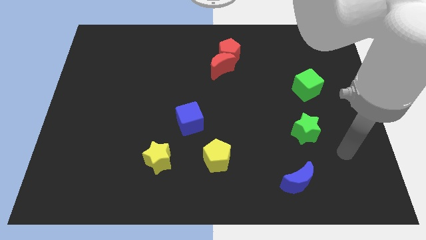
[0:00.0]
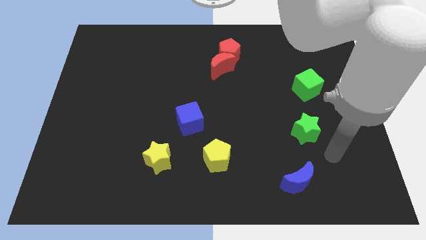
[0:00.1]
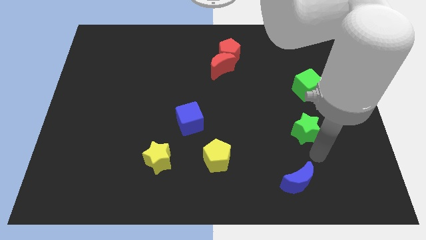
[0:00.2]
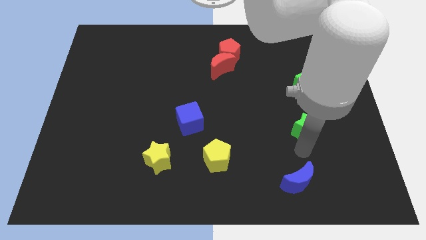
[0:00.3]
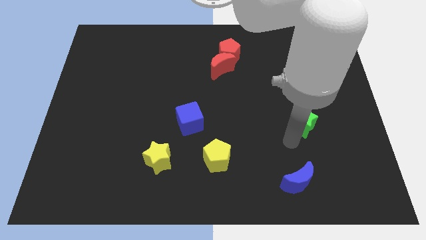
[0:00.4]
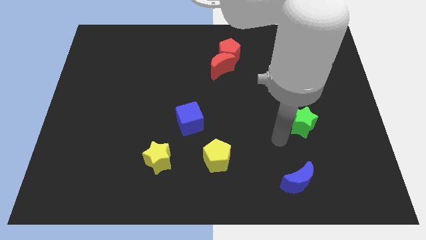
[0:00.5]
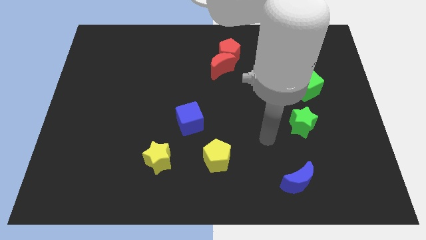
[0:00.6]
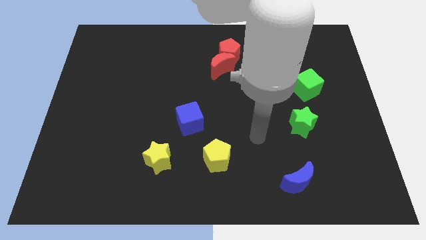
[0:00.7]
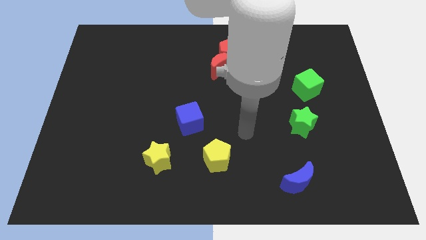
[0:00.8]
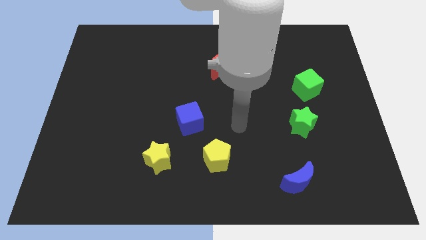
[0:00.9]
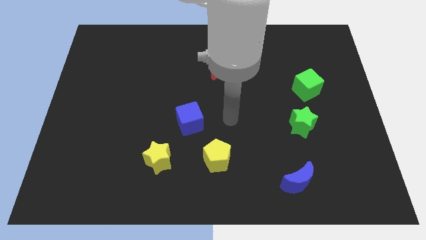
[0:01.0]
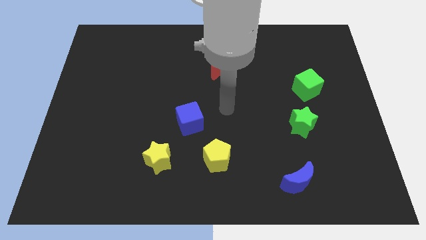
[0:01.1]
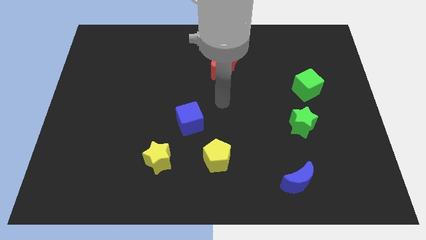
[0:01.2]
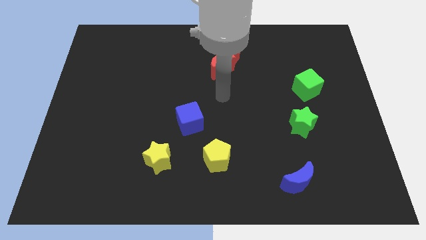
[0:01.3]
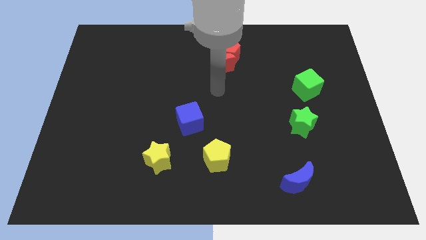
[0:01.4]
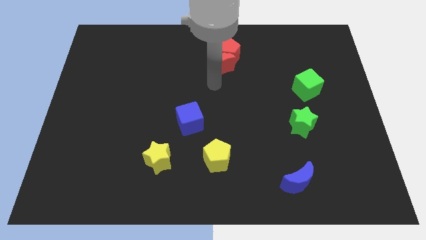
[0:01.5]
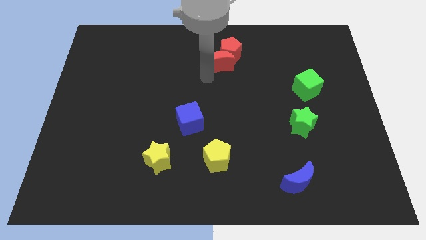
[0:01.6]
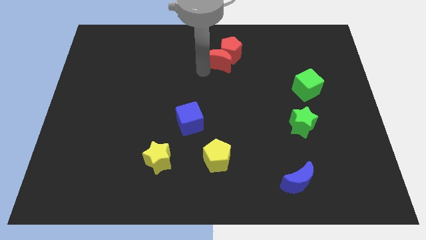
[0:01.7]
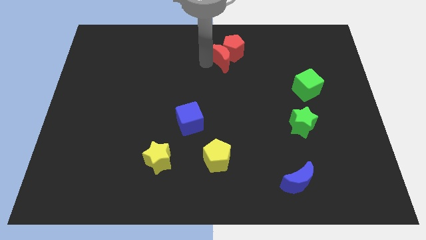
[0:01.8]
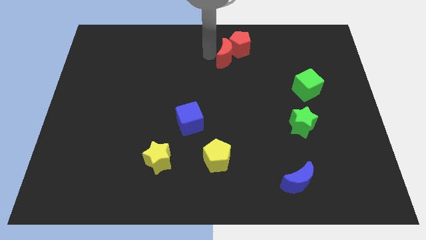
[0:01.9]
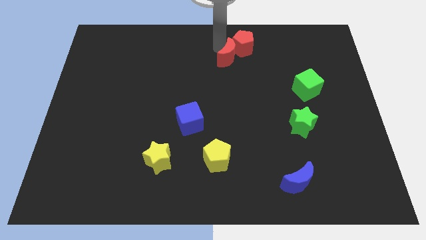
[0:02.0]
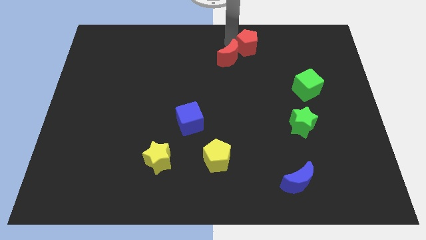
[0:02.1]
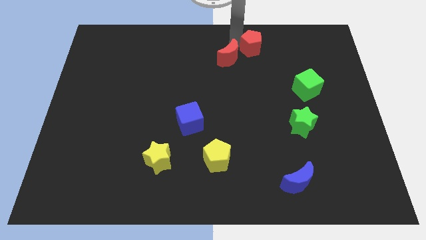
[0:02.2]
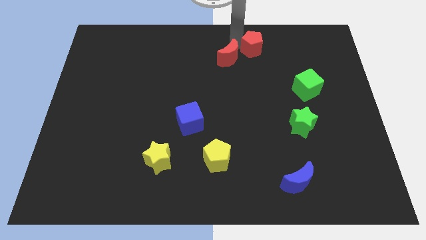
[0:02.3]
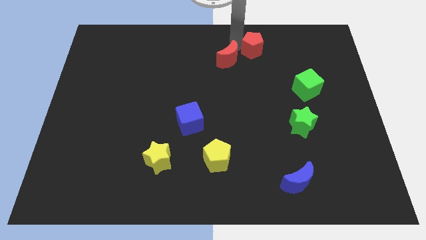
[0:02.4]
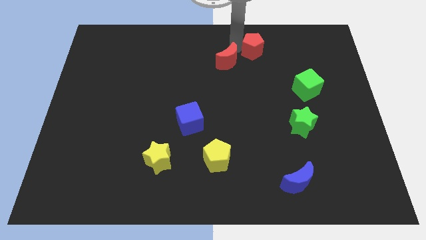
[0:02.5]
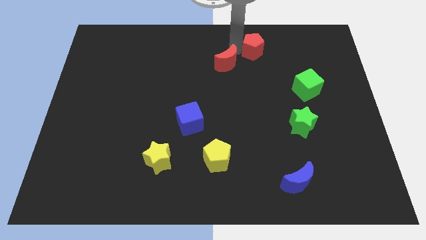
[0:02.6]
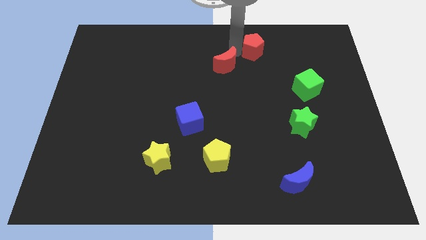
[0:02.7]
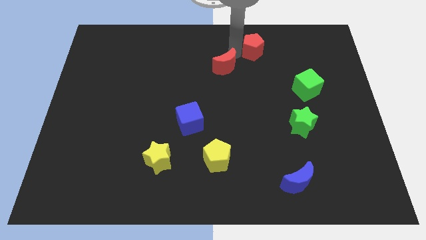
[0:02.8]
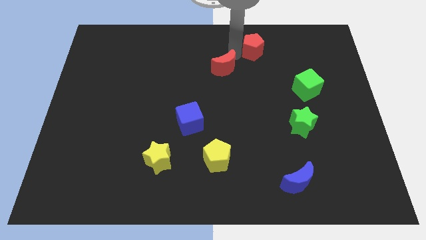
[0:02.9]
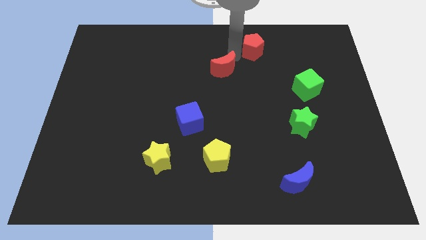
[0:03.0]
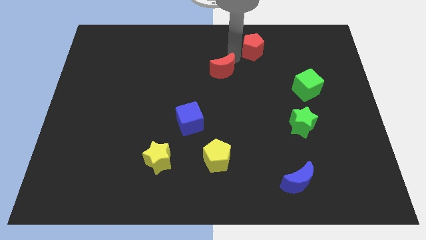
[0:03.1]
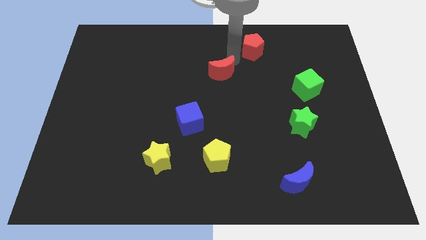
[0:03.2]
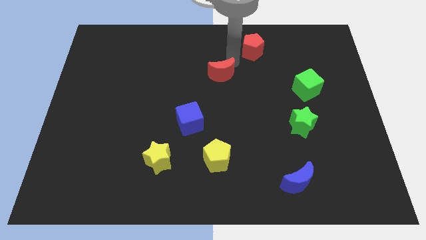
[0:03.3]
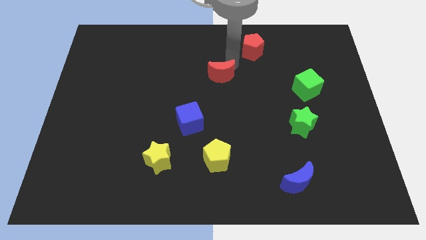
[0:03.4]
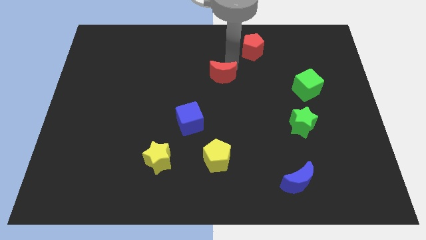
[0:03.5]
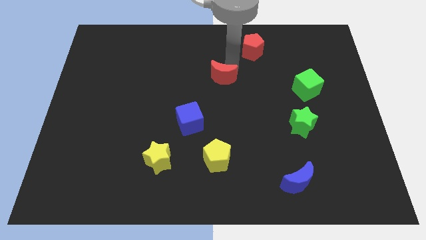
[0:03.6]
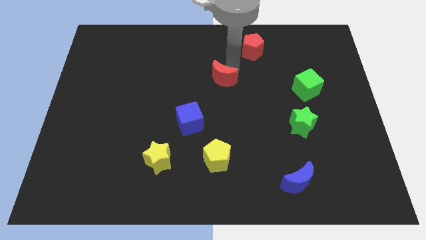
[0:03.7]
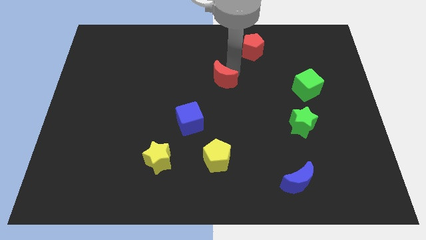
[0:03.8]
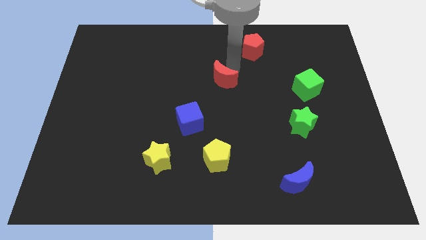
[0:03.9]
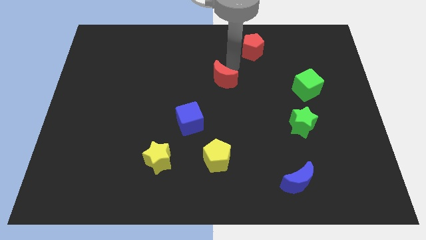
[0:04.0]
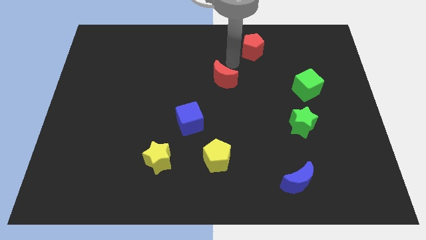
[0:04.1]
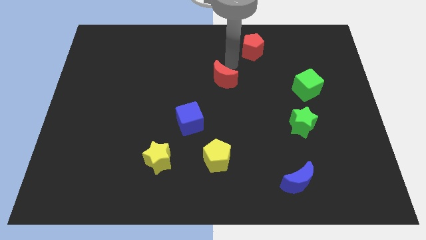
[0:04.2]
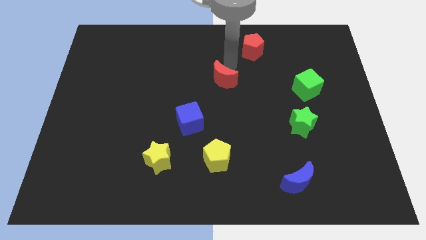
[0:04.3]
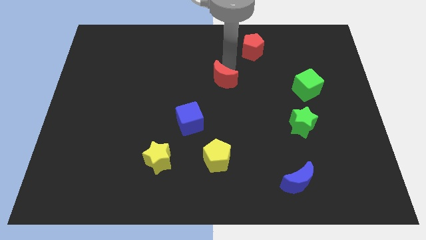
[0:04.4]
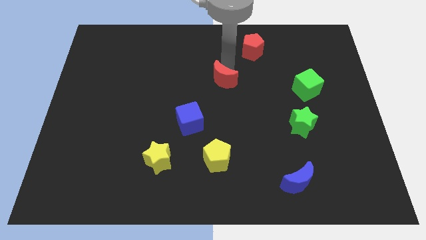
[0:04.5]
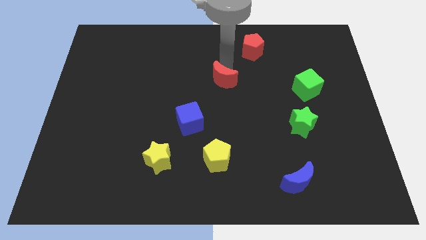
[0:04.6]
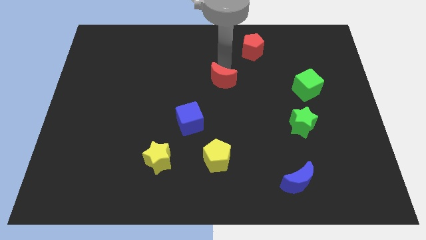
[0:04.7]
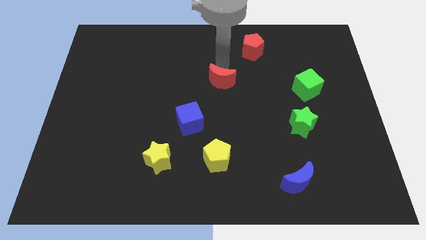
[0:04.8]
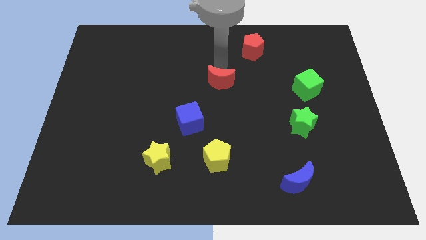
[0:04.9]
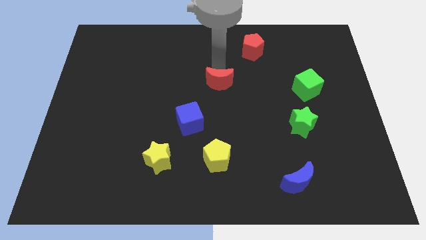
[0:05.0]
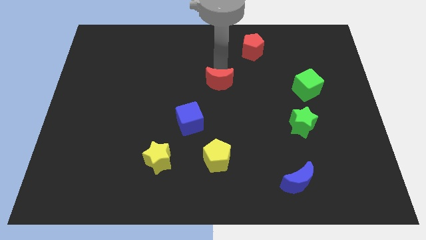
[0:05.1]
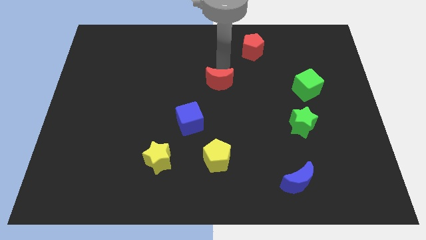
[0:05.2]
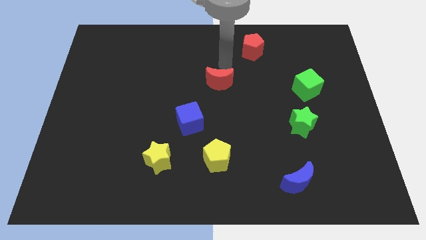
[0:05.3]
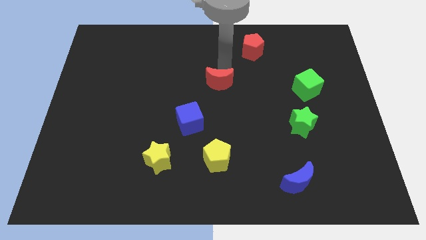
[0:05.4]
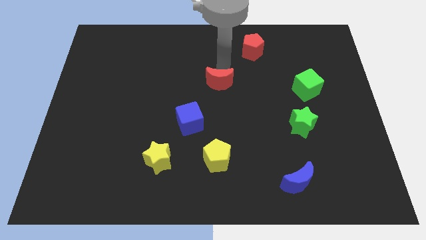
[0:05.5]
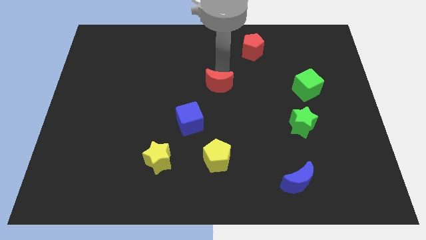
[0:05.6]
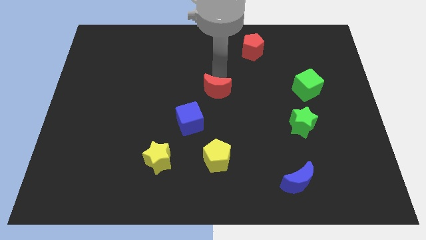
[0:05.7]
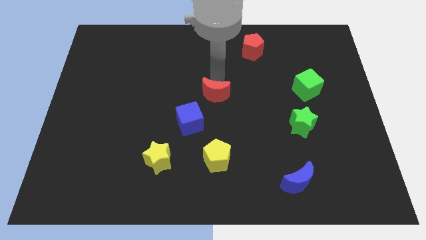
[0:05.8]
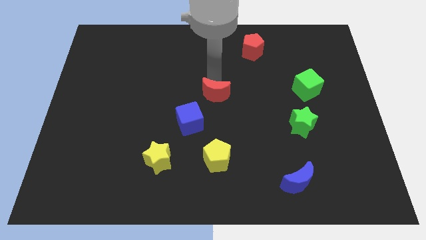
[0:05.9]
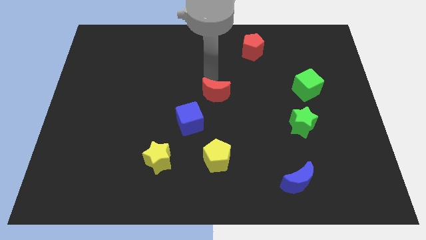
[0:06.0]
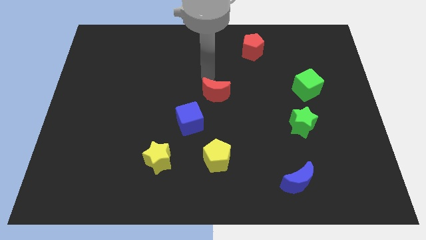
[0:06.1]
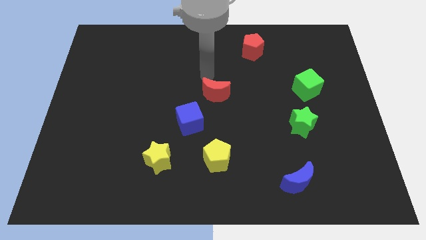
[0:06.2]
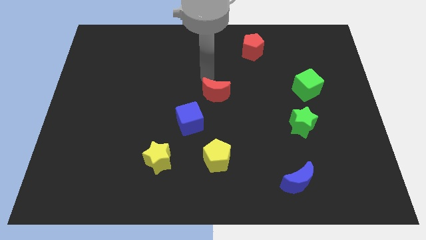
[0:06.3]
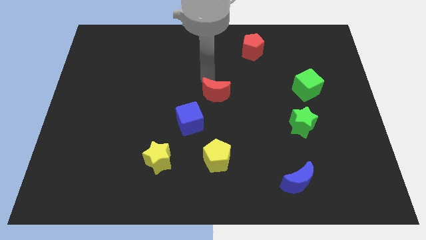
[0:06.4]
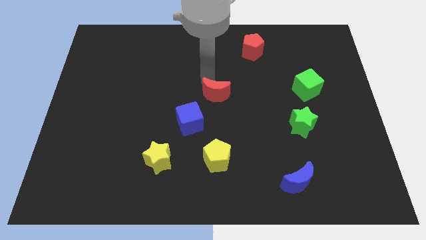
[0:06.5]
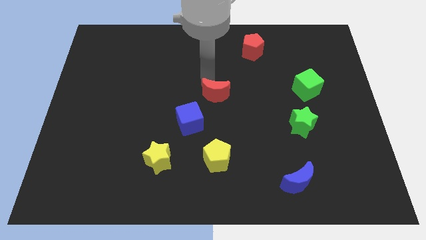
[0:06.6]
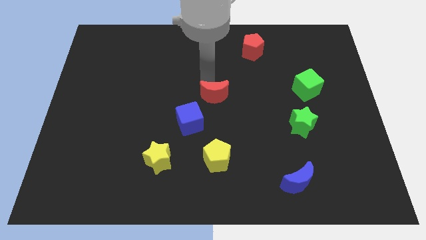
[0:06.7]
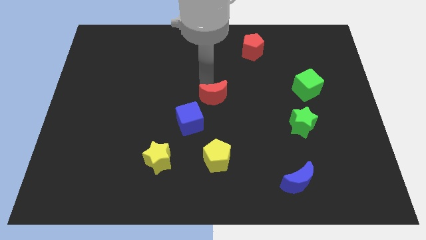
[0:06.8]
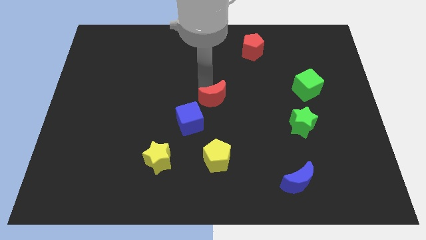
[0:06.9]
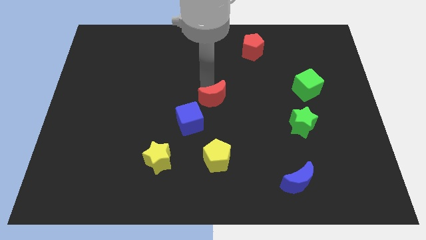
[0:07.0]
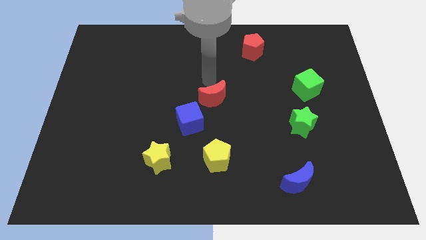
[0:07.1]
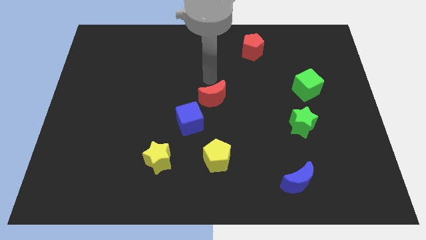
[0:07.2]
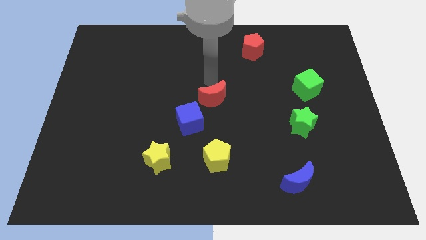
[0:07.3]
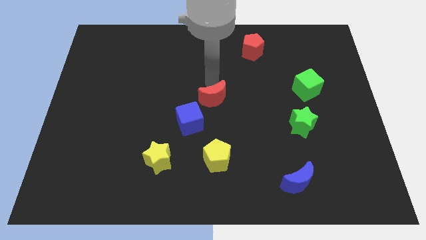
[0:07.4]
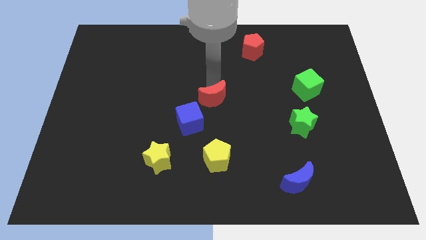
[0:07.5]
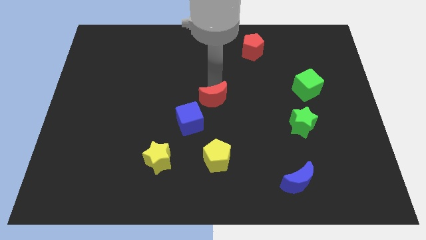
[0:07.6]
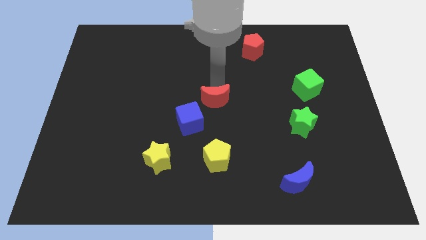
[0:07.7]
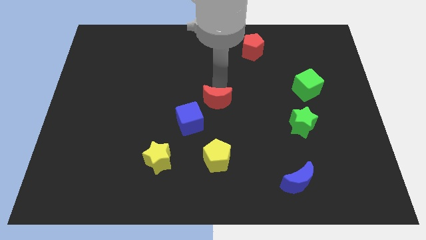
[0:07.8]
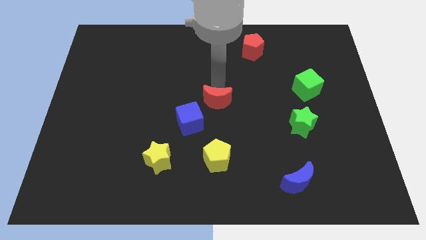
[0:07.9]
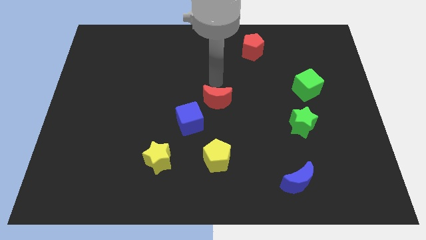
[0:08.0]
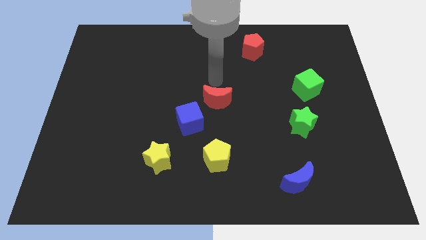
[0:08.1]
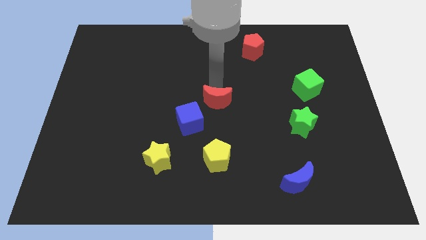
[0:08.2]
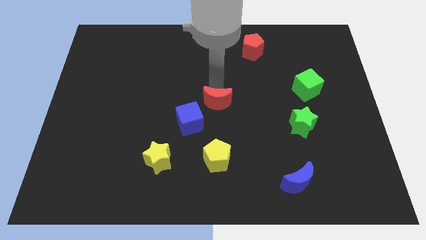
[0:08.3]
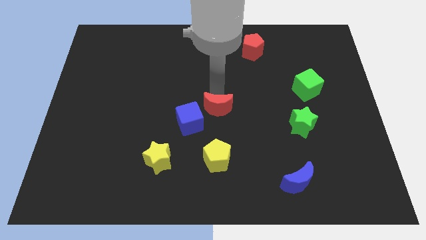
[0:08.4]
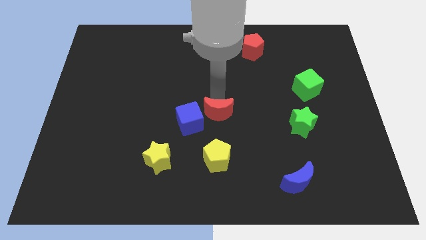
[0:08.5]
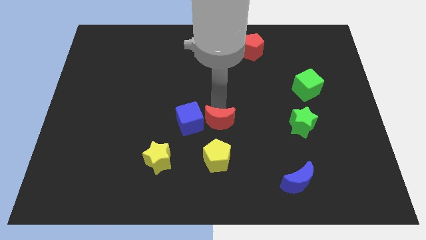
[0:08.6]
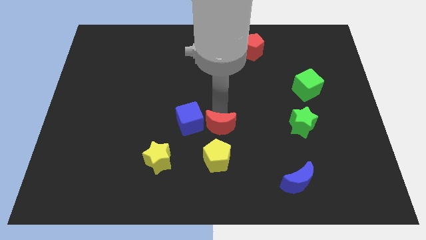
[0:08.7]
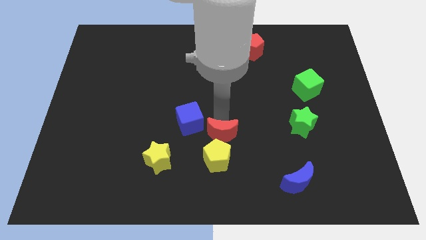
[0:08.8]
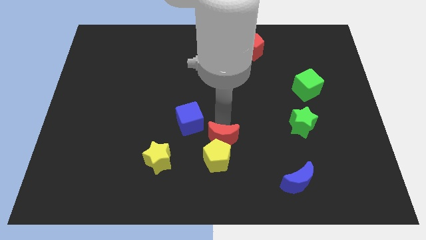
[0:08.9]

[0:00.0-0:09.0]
put the red moon close to the yellow pentagon
